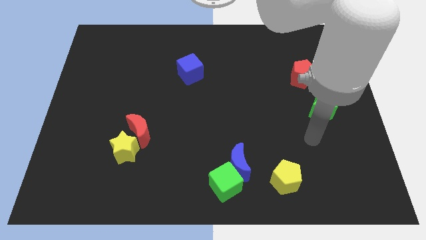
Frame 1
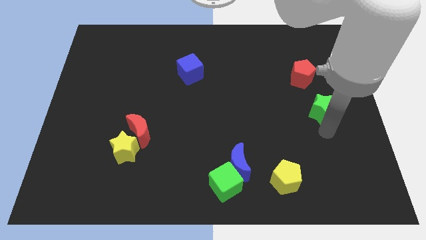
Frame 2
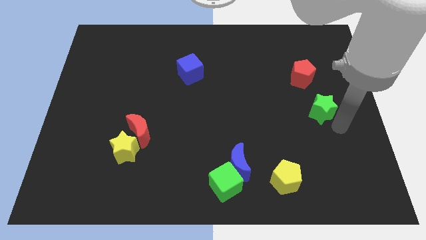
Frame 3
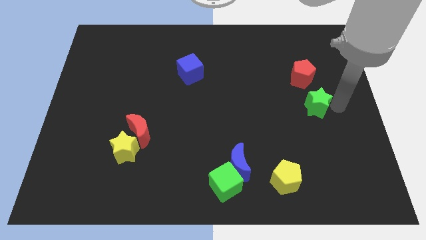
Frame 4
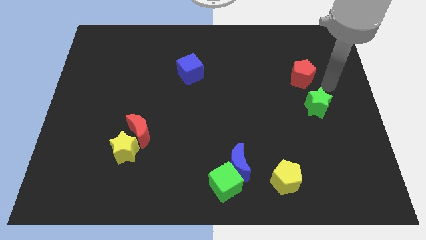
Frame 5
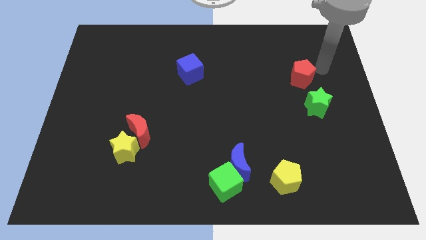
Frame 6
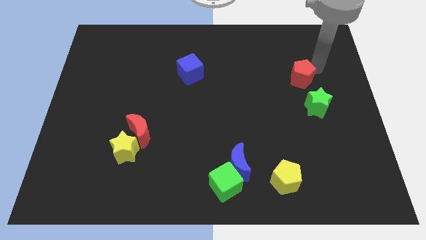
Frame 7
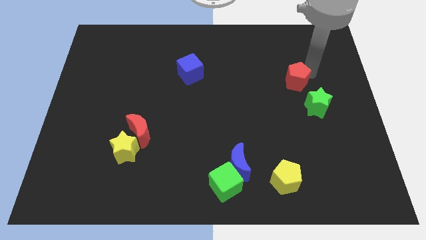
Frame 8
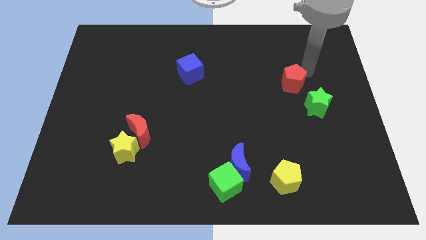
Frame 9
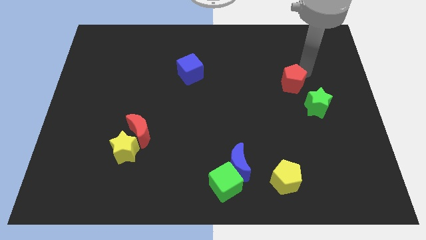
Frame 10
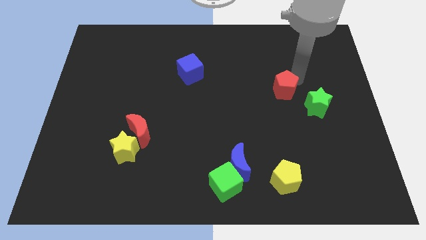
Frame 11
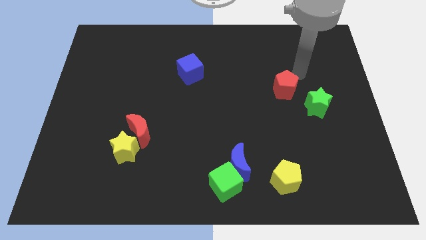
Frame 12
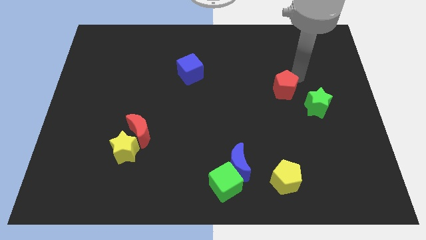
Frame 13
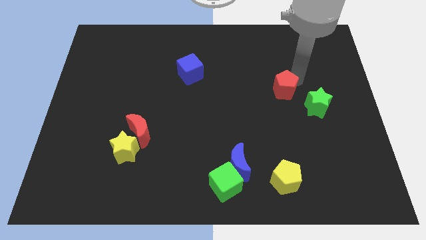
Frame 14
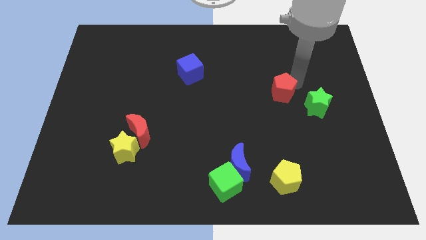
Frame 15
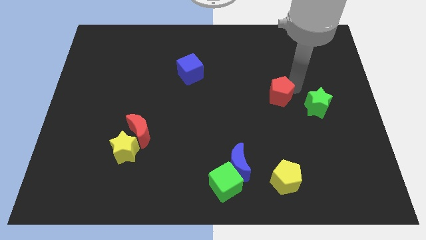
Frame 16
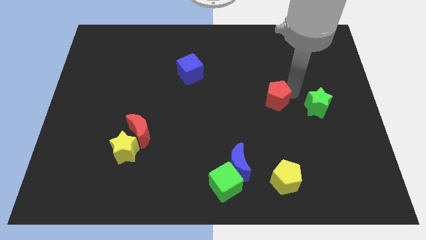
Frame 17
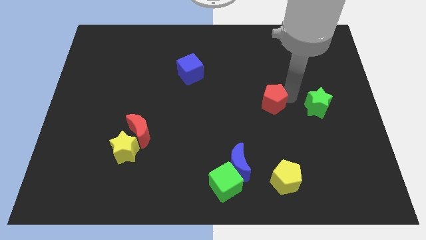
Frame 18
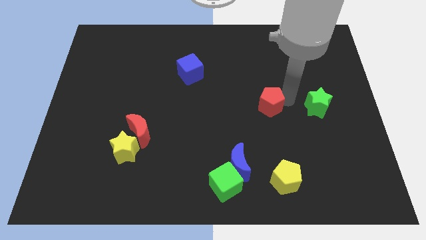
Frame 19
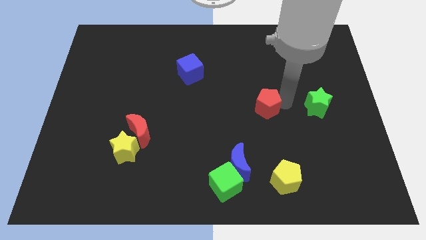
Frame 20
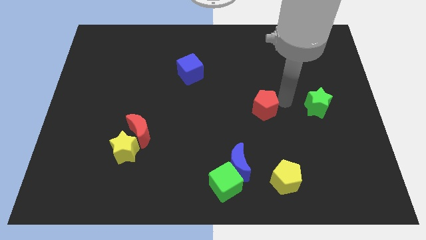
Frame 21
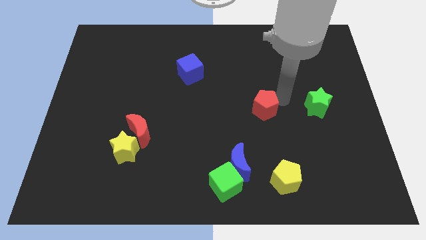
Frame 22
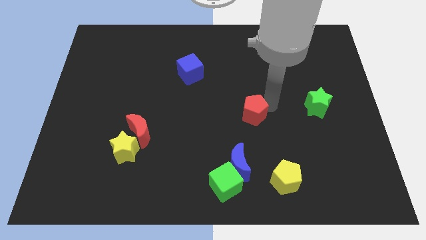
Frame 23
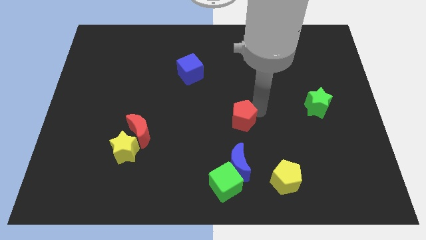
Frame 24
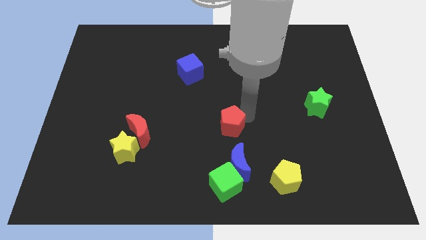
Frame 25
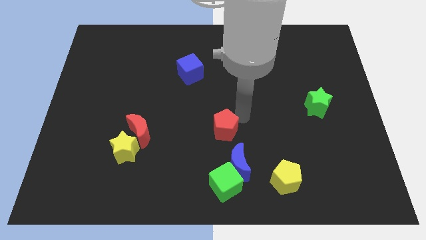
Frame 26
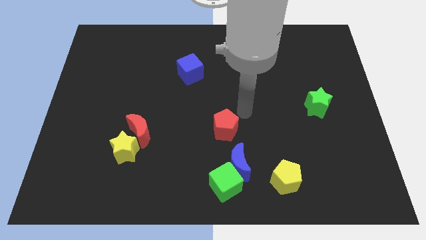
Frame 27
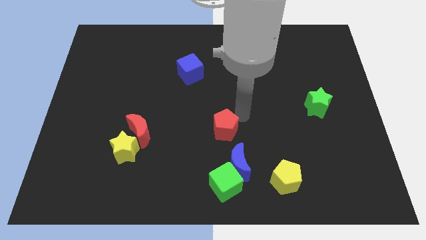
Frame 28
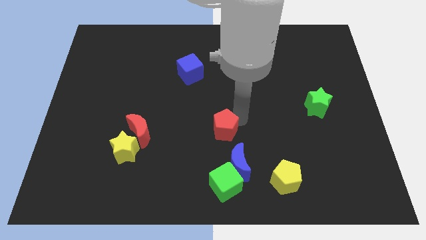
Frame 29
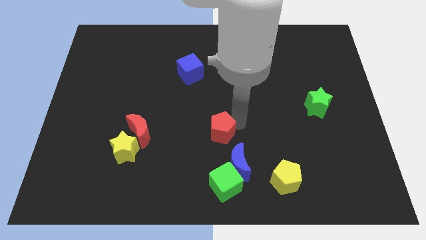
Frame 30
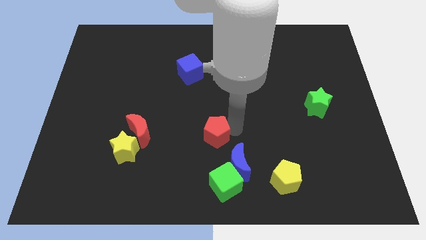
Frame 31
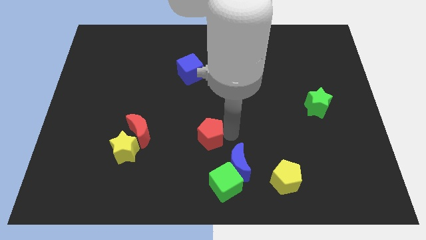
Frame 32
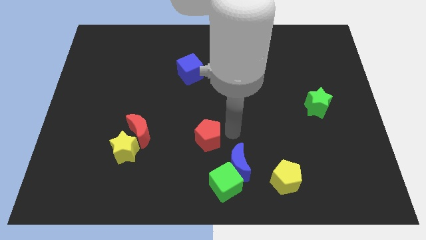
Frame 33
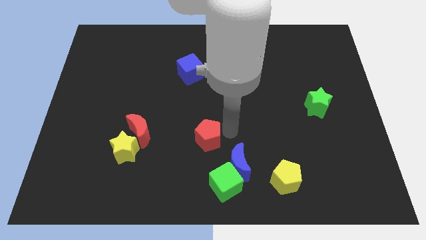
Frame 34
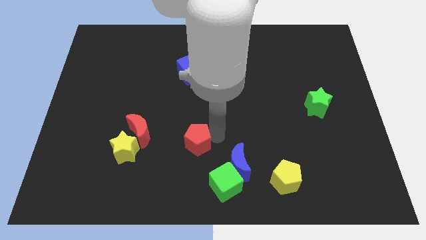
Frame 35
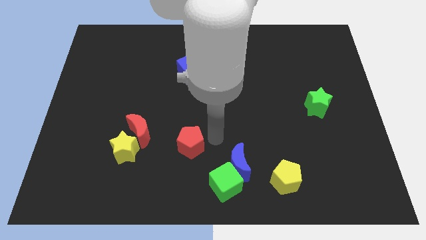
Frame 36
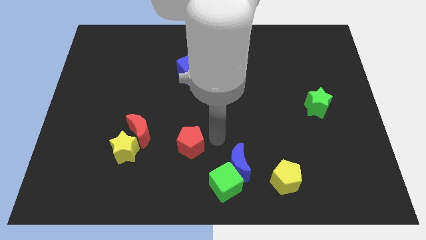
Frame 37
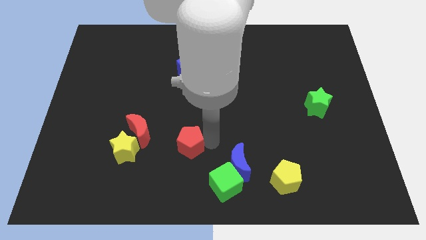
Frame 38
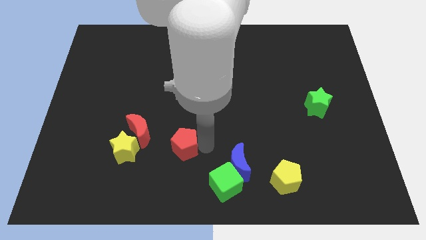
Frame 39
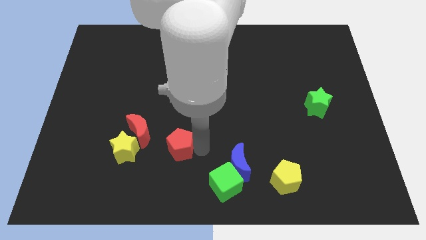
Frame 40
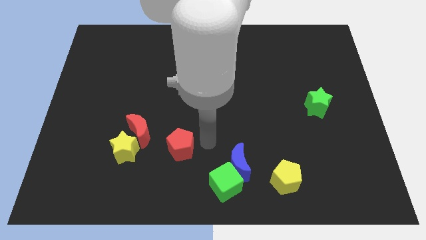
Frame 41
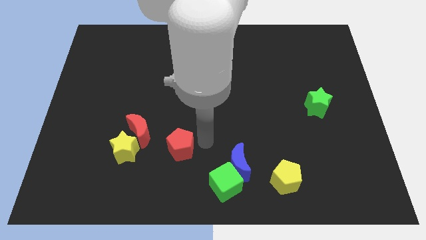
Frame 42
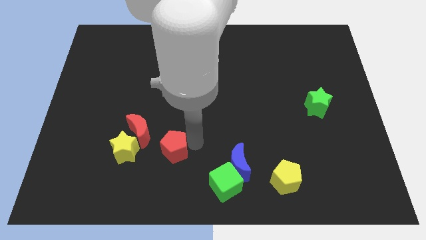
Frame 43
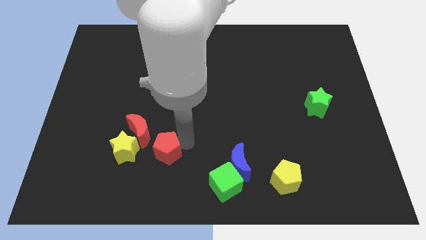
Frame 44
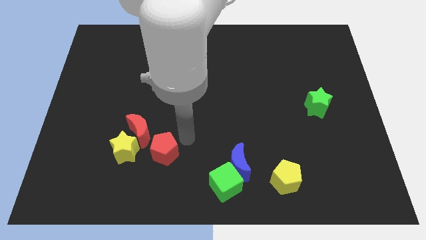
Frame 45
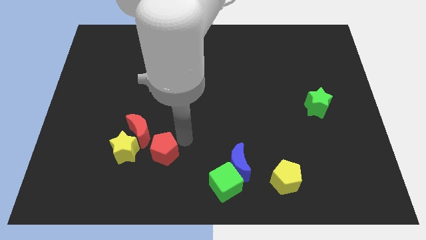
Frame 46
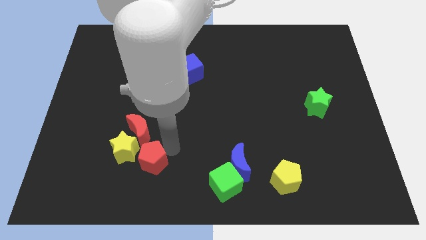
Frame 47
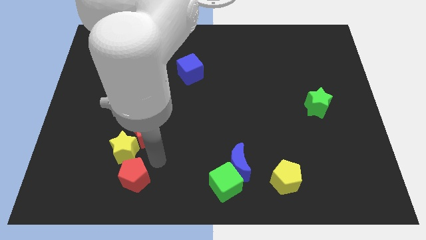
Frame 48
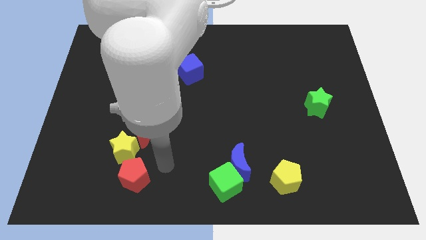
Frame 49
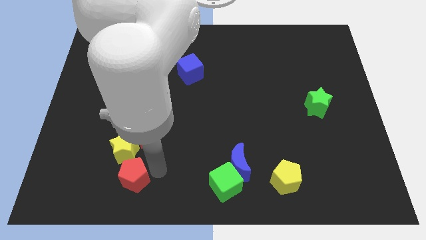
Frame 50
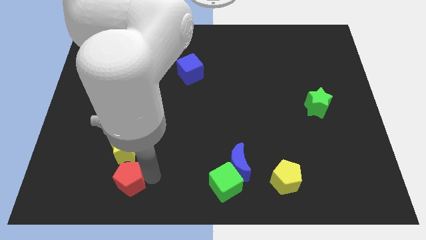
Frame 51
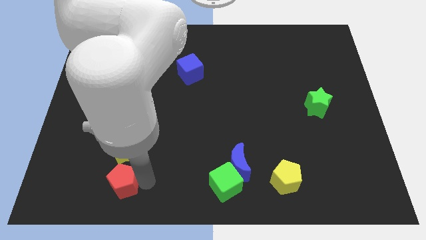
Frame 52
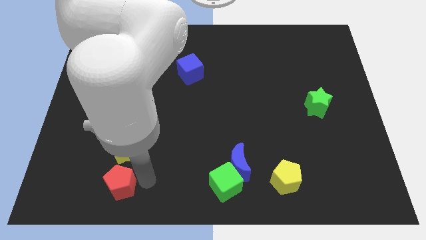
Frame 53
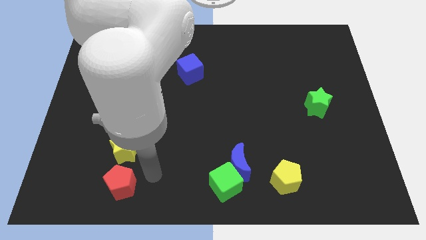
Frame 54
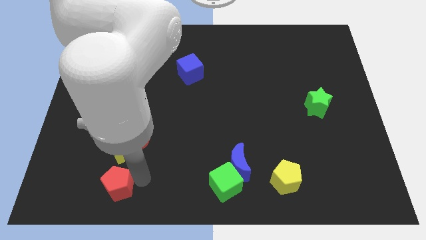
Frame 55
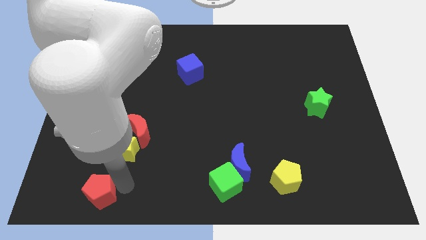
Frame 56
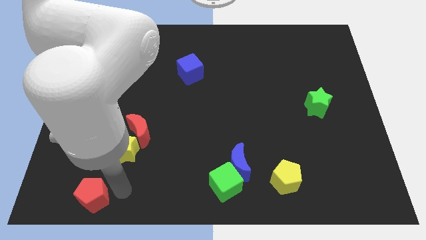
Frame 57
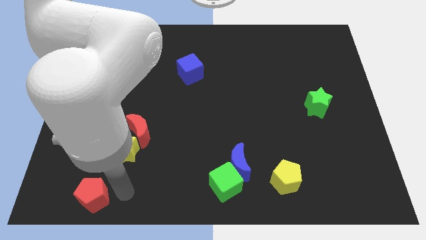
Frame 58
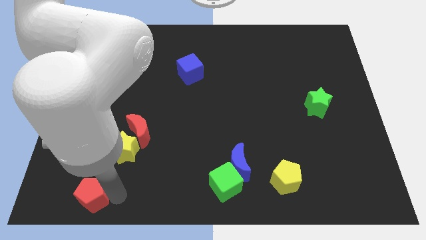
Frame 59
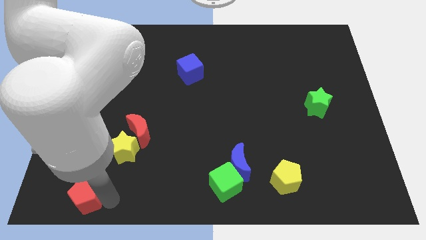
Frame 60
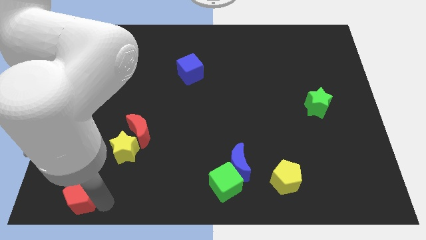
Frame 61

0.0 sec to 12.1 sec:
push the red pentagon to the lower left corner

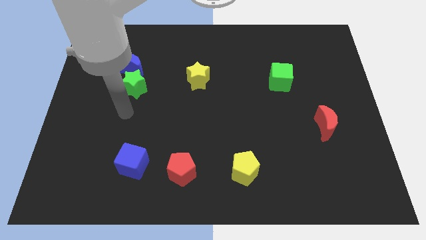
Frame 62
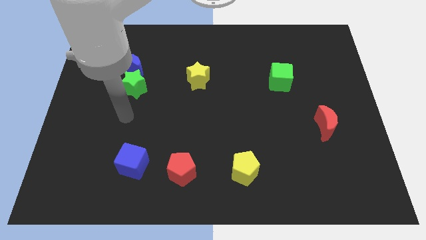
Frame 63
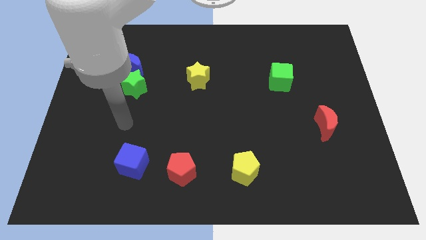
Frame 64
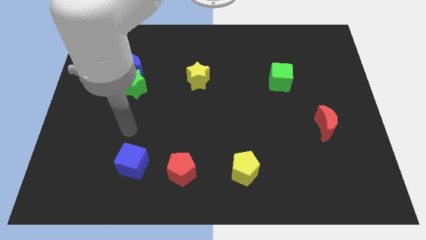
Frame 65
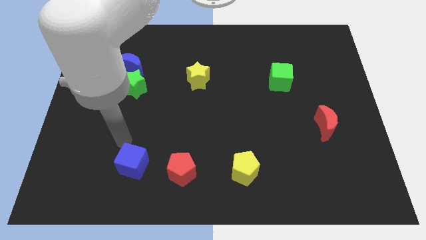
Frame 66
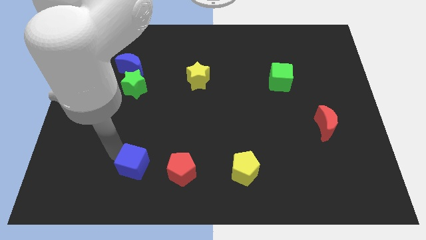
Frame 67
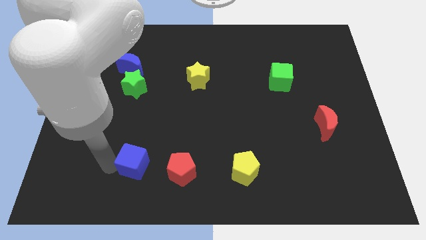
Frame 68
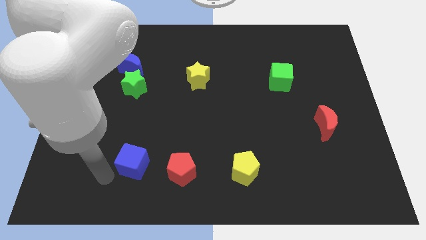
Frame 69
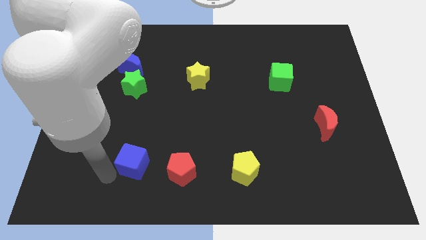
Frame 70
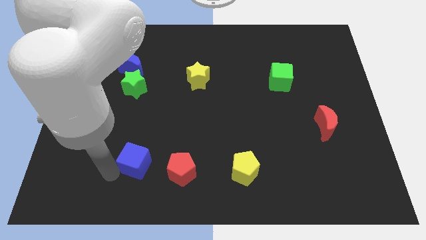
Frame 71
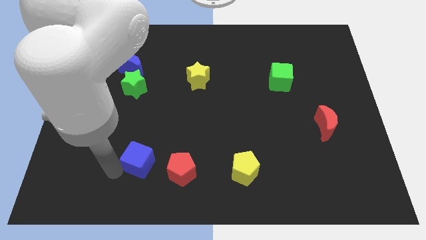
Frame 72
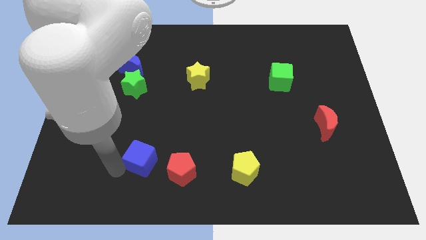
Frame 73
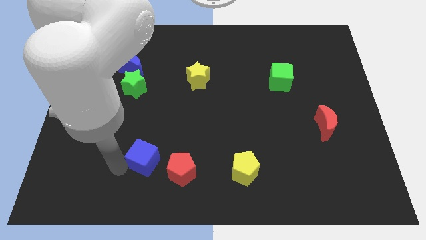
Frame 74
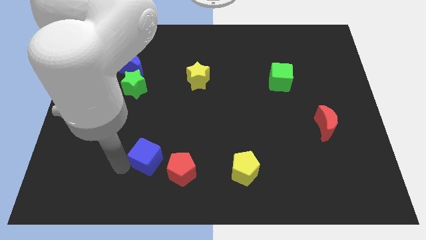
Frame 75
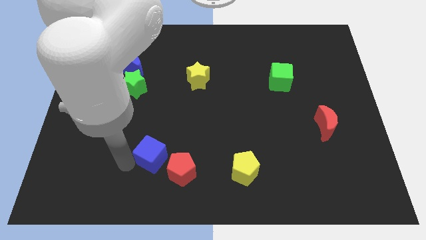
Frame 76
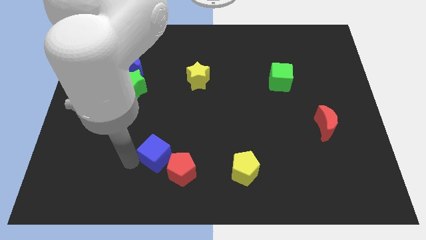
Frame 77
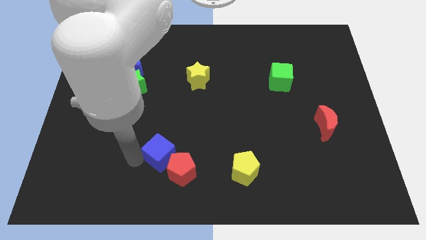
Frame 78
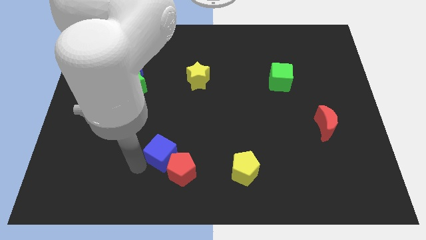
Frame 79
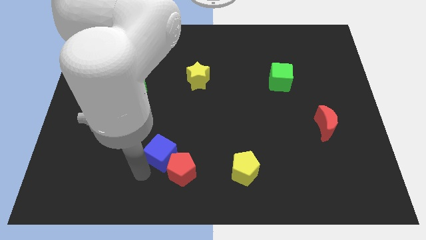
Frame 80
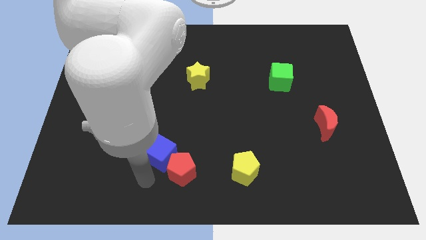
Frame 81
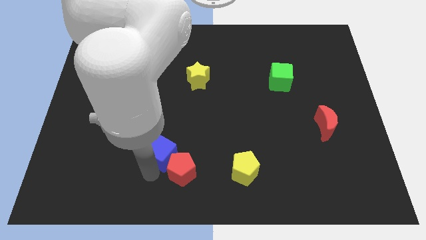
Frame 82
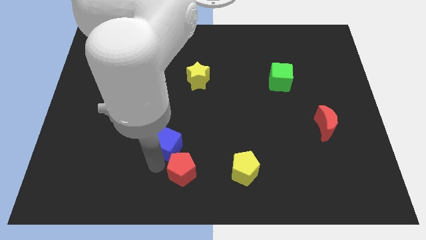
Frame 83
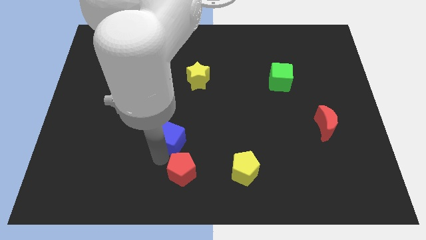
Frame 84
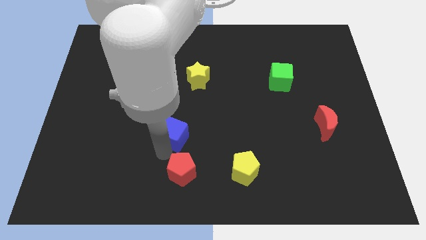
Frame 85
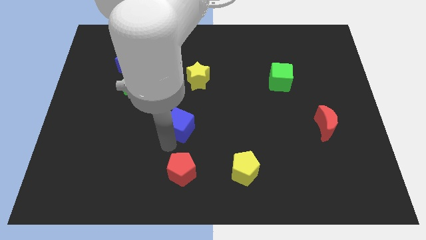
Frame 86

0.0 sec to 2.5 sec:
slide the blue cube to the middle
